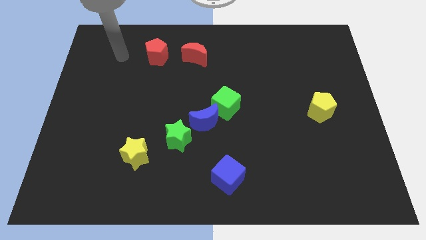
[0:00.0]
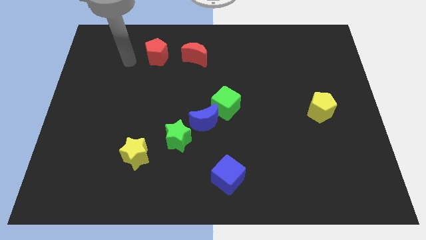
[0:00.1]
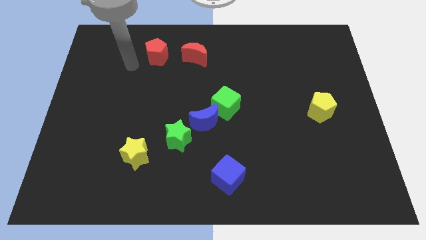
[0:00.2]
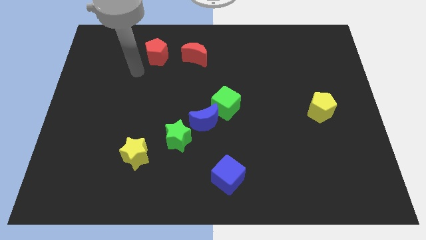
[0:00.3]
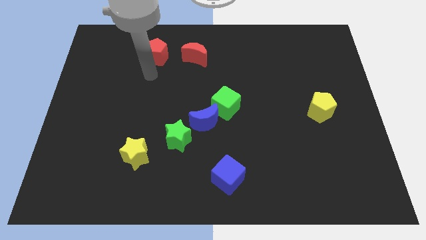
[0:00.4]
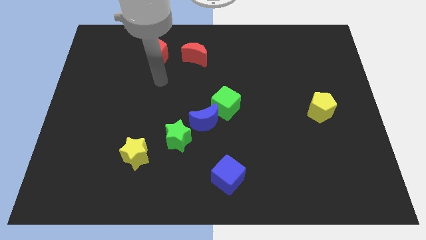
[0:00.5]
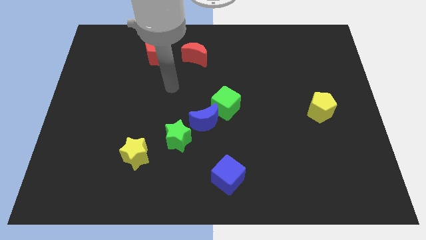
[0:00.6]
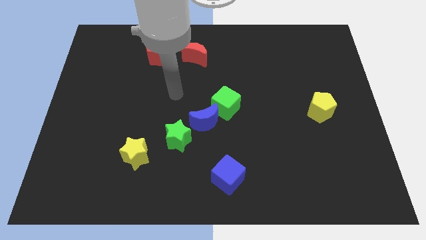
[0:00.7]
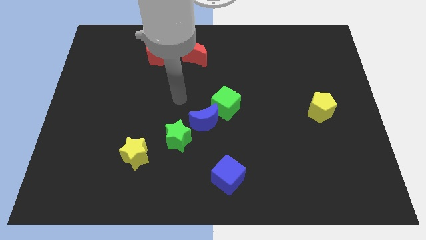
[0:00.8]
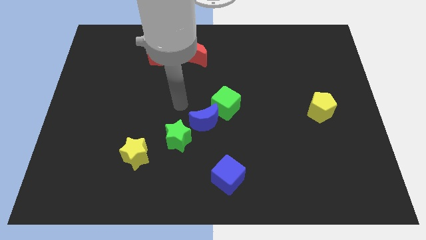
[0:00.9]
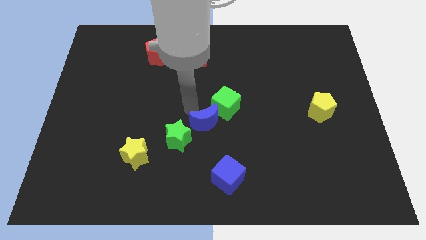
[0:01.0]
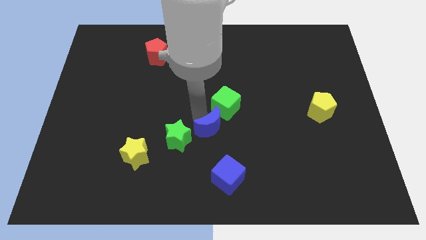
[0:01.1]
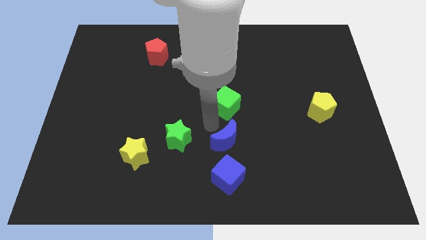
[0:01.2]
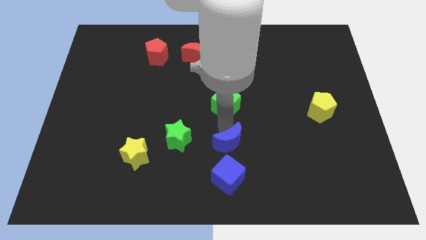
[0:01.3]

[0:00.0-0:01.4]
pull the green cube apart from the blue moon

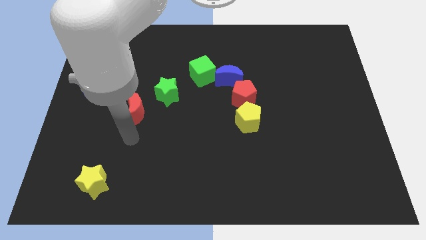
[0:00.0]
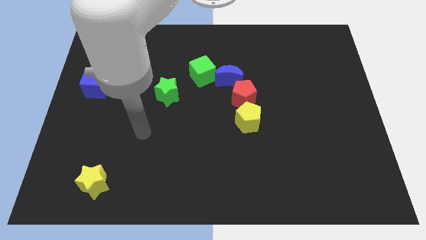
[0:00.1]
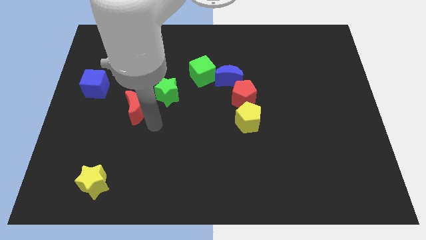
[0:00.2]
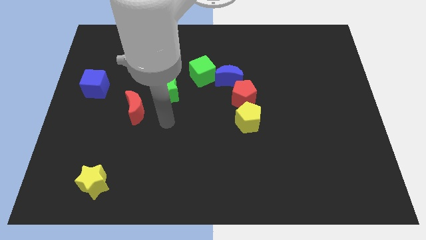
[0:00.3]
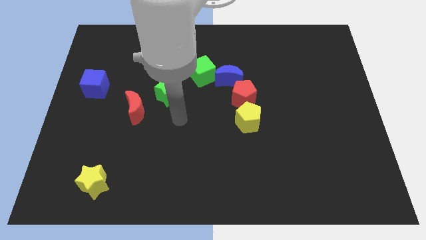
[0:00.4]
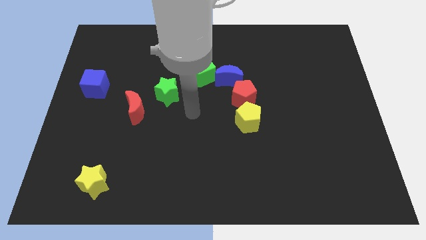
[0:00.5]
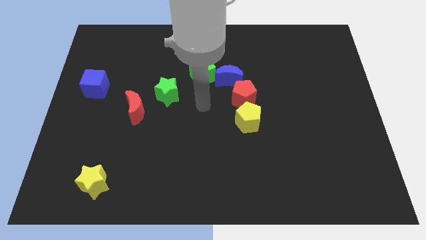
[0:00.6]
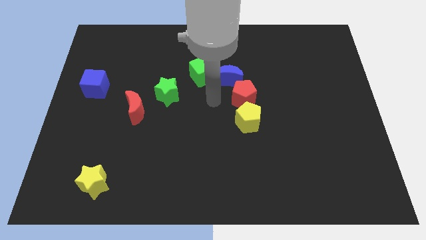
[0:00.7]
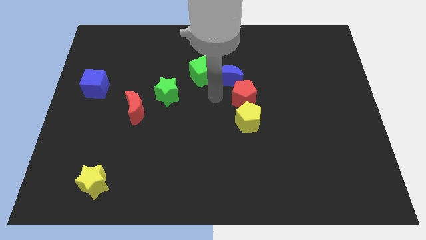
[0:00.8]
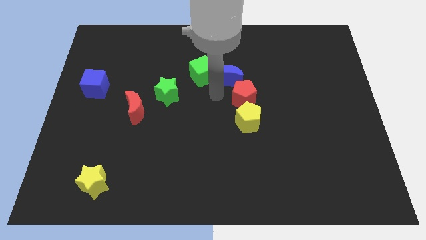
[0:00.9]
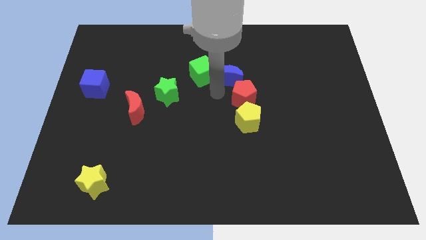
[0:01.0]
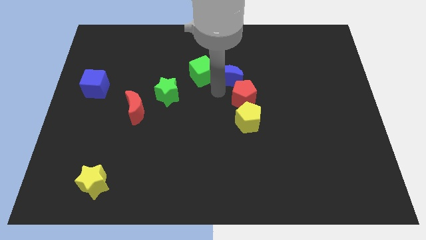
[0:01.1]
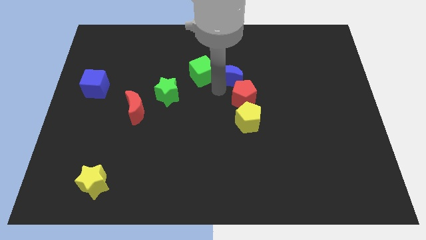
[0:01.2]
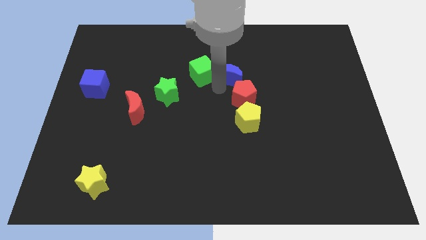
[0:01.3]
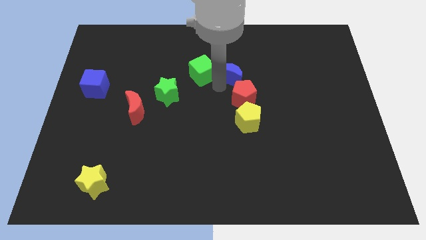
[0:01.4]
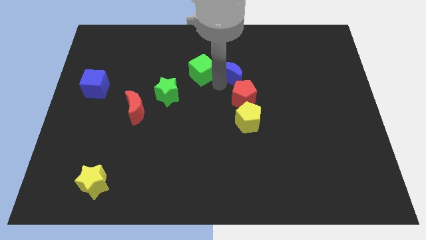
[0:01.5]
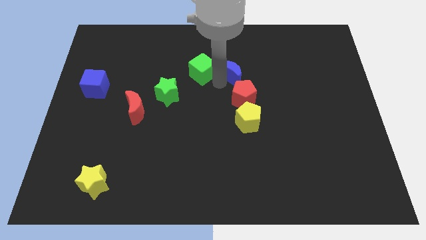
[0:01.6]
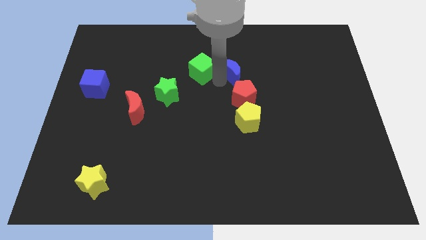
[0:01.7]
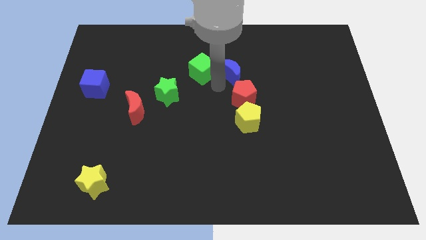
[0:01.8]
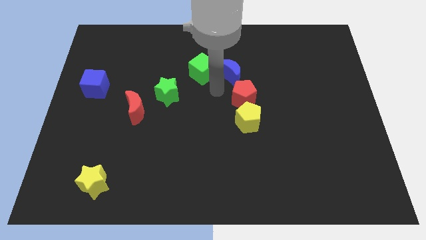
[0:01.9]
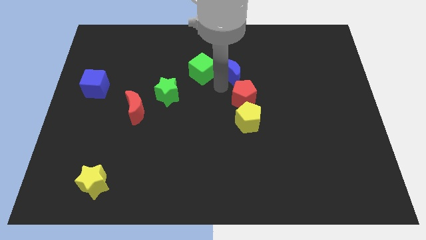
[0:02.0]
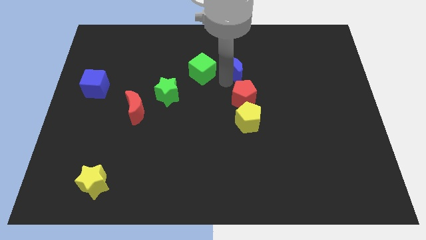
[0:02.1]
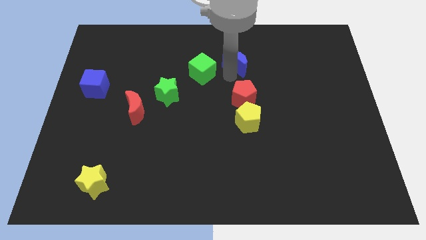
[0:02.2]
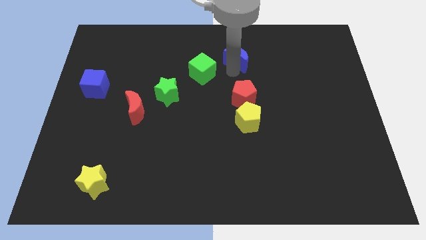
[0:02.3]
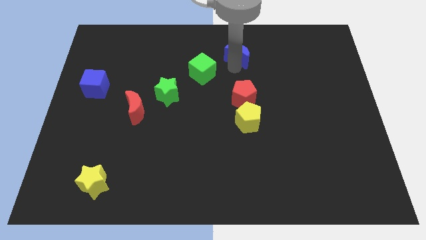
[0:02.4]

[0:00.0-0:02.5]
separate the blue moon from the red pentagon and green cube

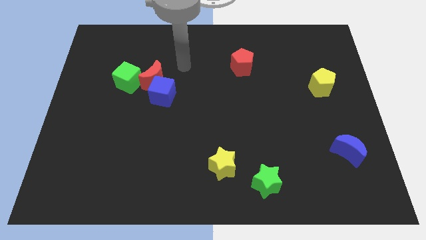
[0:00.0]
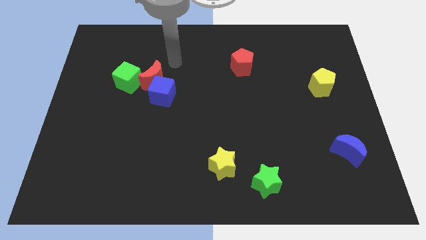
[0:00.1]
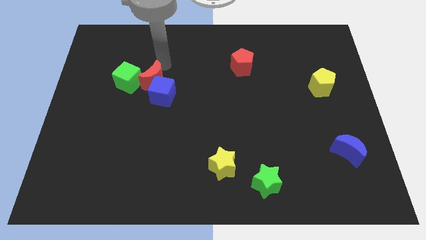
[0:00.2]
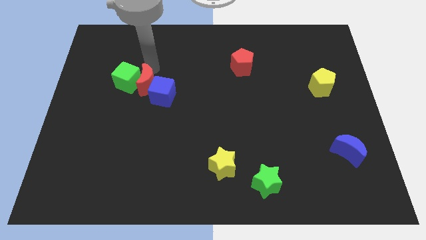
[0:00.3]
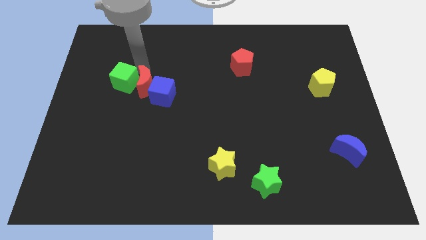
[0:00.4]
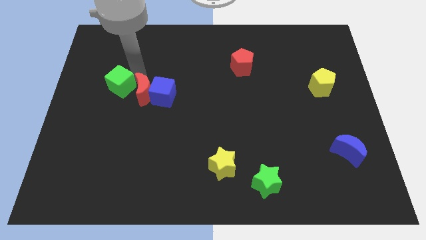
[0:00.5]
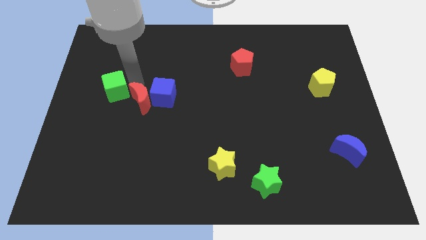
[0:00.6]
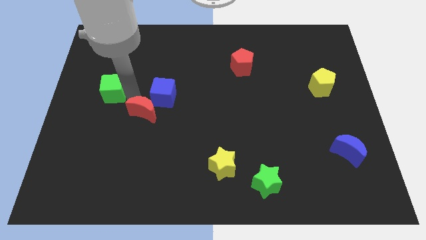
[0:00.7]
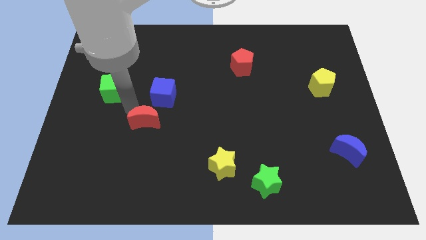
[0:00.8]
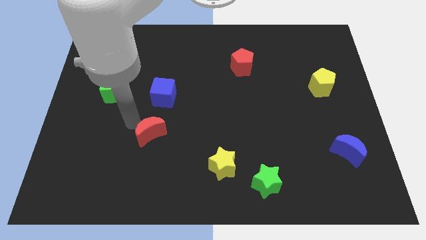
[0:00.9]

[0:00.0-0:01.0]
pull the red moon apart from the blue cube and green cube

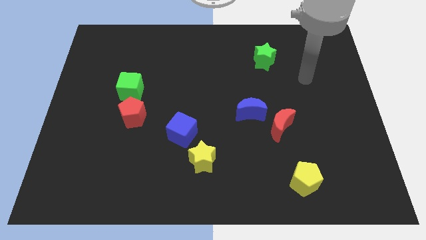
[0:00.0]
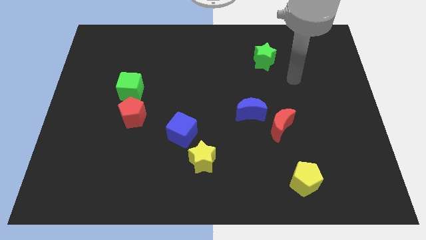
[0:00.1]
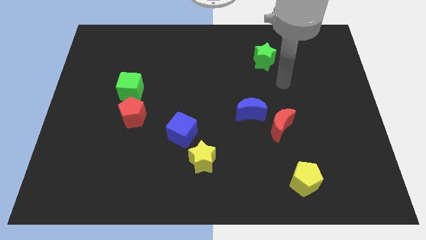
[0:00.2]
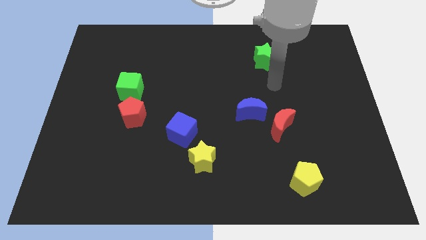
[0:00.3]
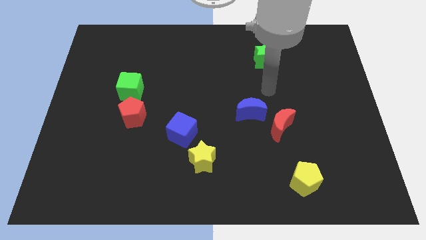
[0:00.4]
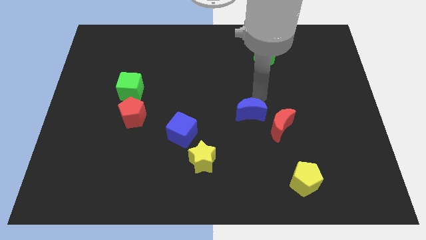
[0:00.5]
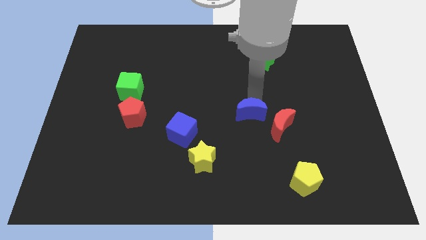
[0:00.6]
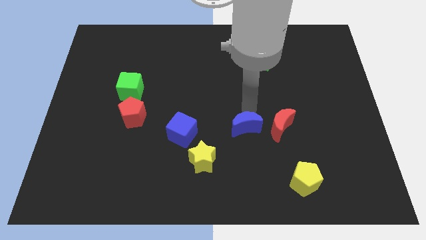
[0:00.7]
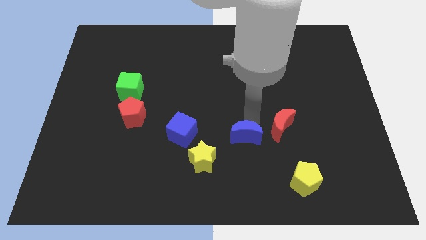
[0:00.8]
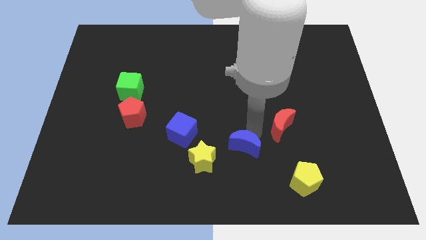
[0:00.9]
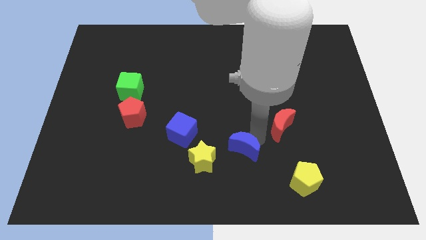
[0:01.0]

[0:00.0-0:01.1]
pull the red moon apart from the blue moon

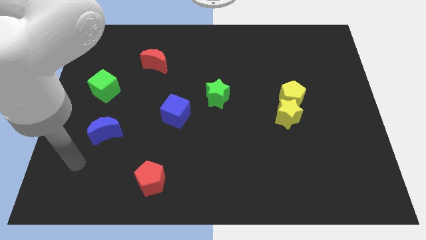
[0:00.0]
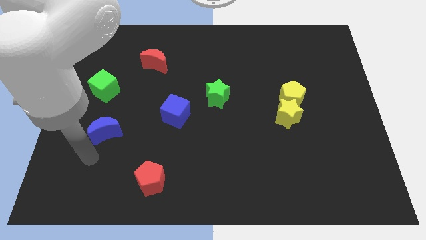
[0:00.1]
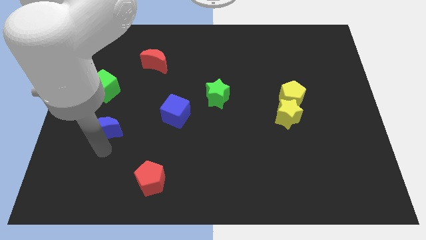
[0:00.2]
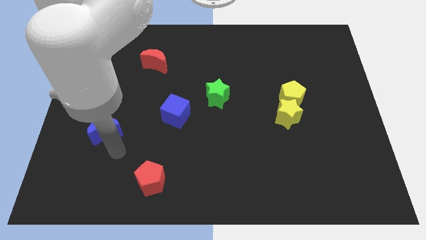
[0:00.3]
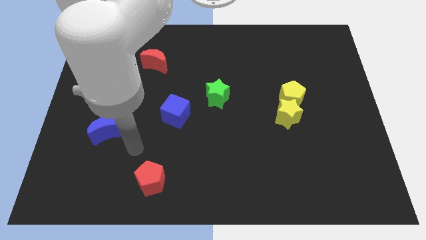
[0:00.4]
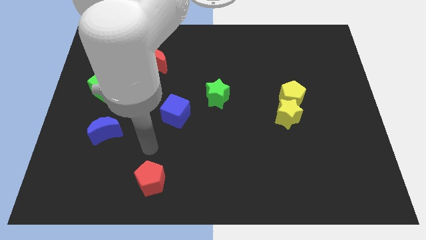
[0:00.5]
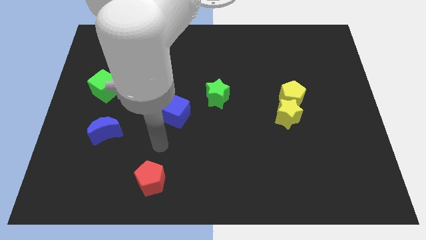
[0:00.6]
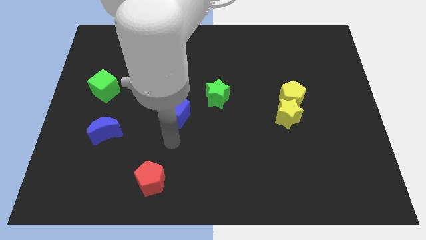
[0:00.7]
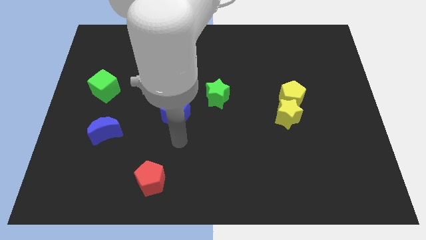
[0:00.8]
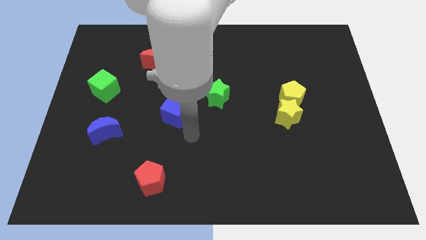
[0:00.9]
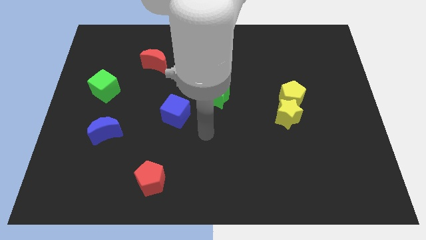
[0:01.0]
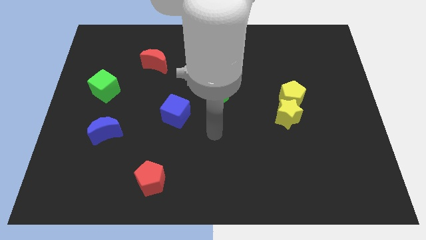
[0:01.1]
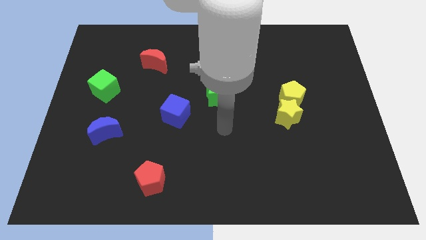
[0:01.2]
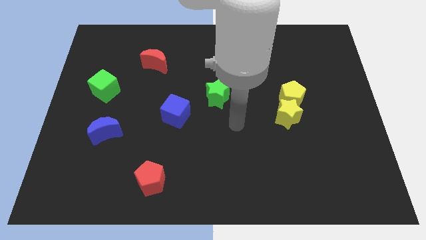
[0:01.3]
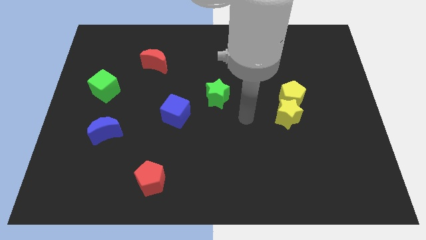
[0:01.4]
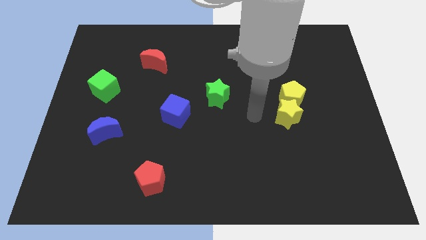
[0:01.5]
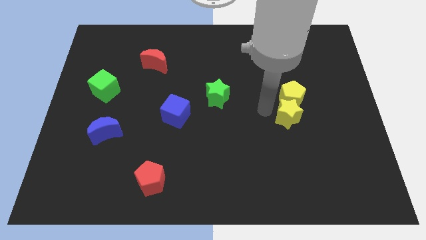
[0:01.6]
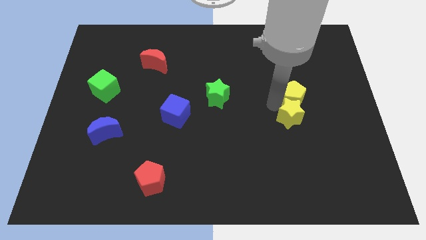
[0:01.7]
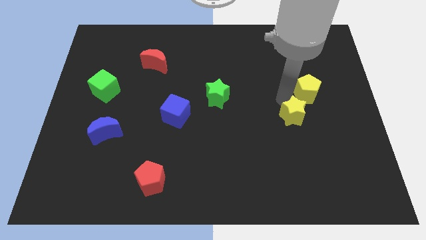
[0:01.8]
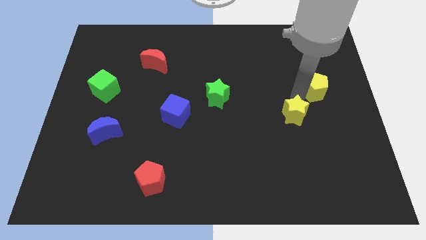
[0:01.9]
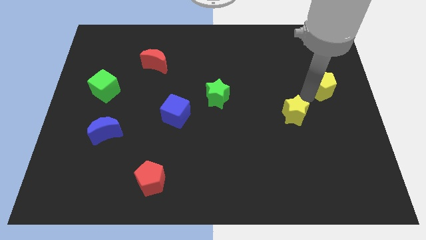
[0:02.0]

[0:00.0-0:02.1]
pull the yellow star apart from the yellow pentagon

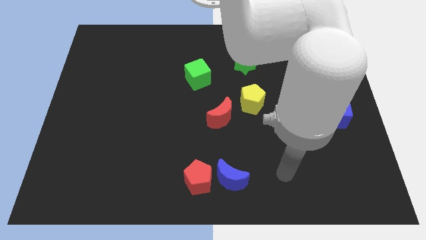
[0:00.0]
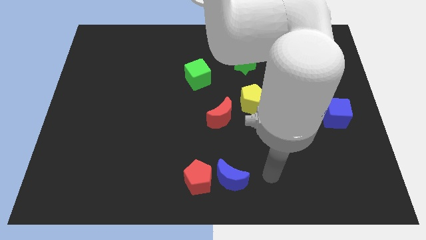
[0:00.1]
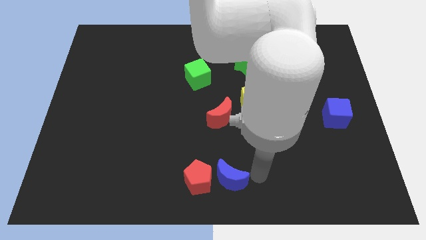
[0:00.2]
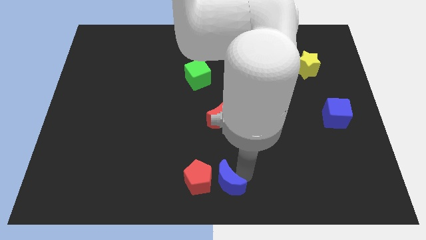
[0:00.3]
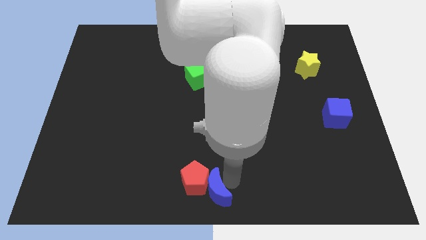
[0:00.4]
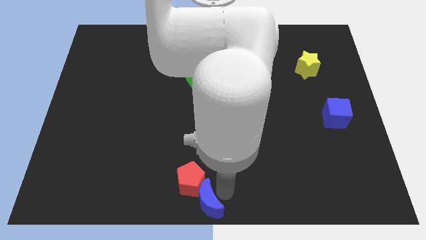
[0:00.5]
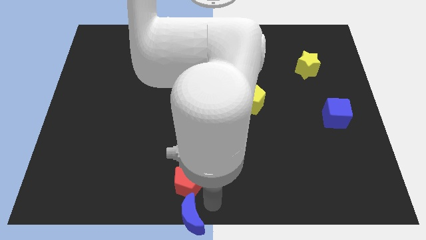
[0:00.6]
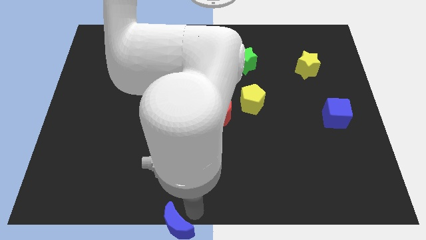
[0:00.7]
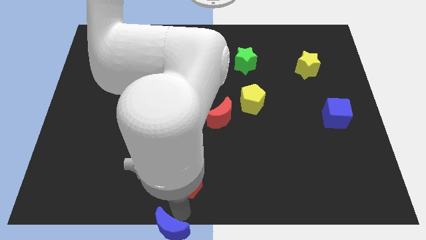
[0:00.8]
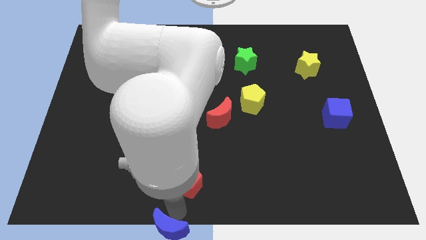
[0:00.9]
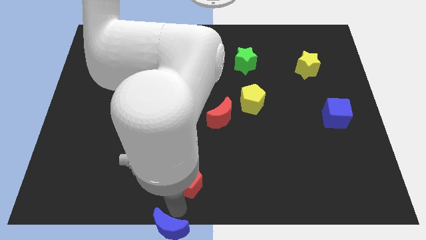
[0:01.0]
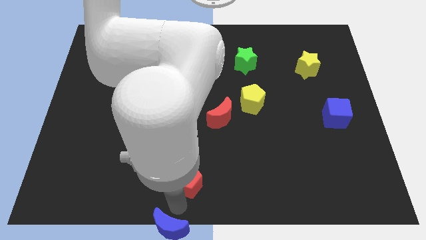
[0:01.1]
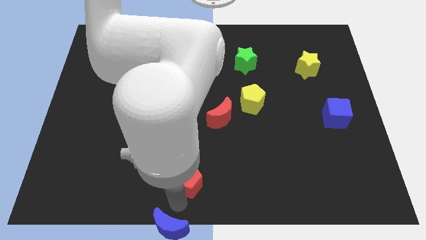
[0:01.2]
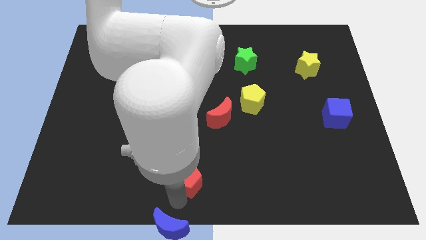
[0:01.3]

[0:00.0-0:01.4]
move the red pentagon away from the blue moon
